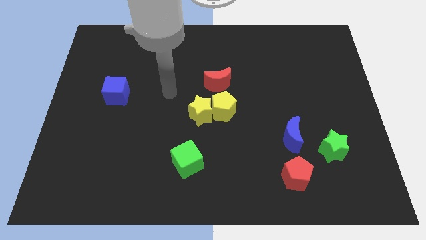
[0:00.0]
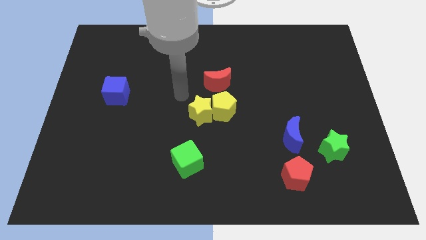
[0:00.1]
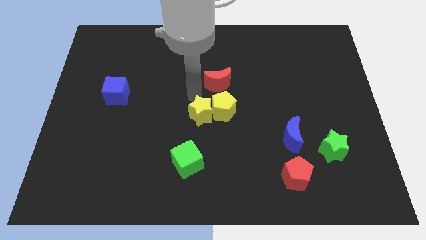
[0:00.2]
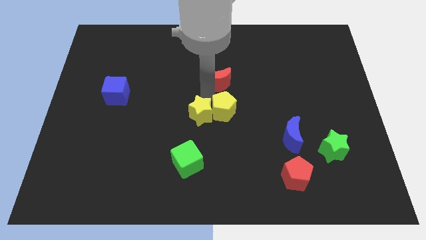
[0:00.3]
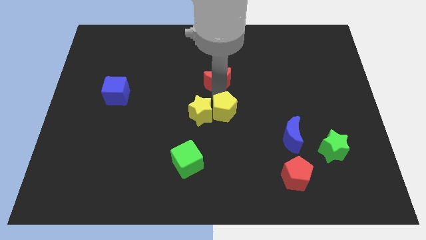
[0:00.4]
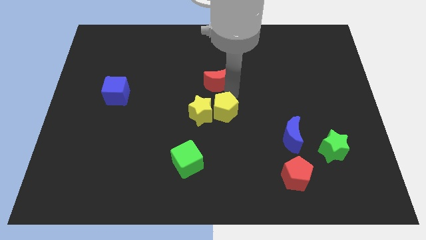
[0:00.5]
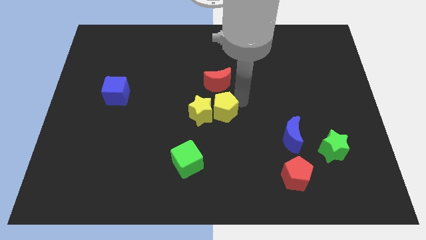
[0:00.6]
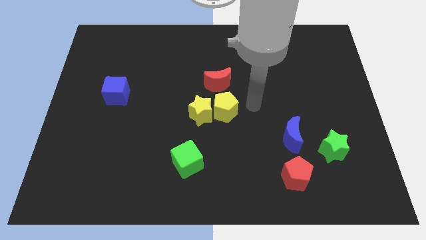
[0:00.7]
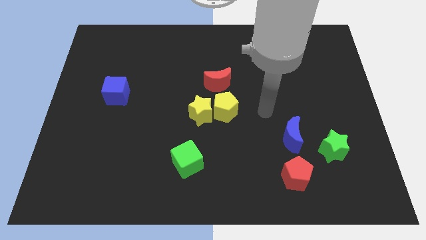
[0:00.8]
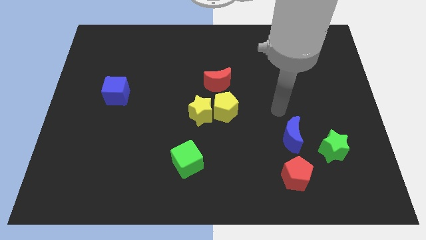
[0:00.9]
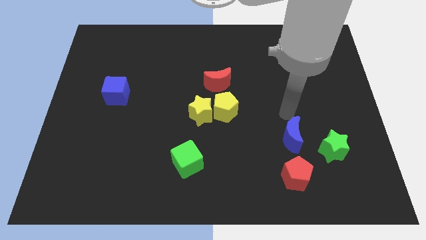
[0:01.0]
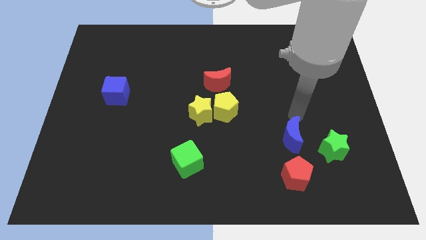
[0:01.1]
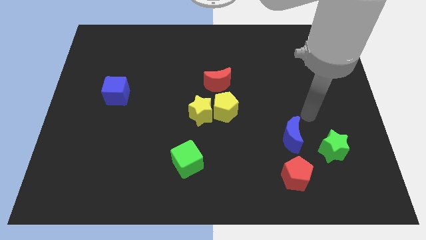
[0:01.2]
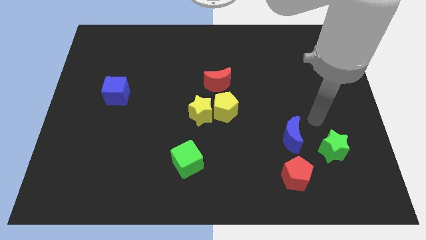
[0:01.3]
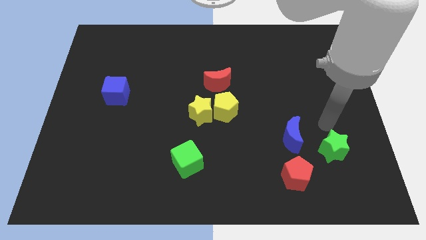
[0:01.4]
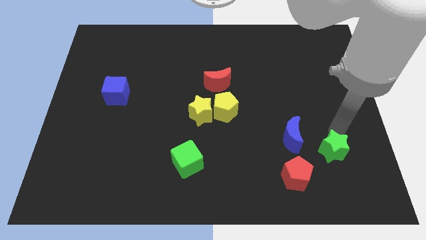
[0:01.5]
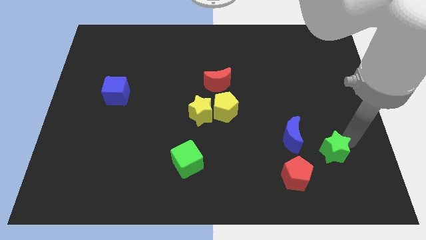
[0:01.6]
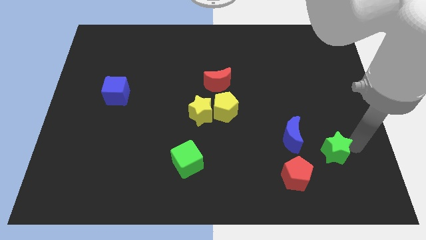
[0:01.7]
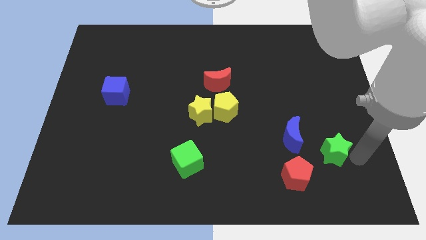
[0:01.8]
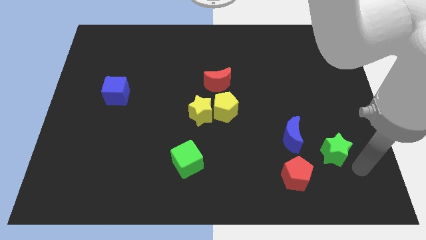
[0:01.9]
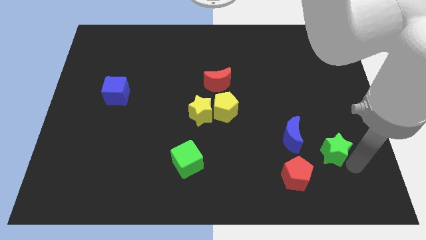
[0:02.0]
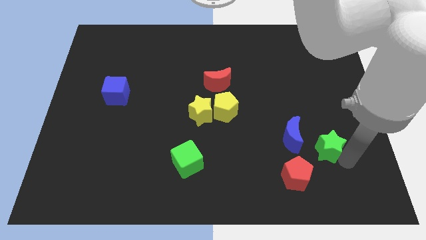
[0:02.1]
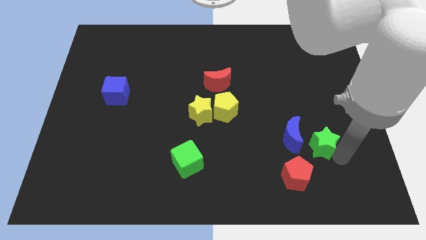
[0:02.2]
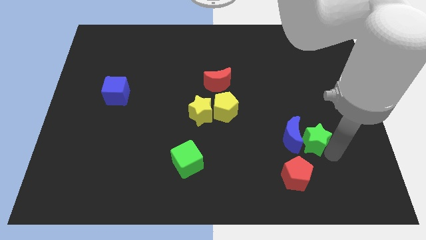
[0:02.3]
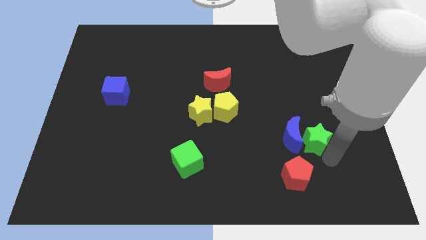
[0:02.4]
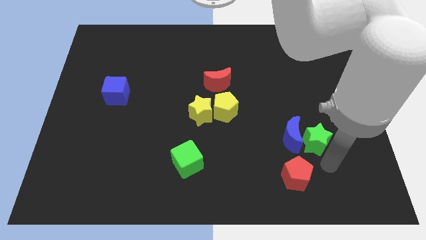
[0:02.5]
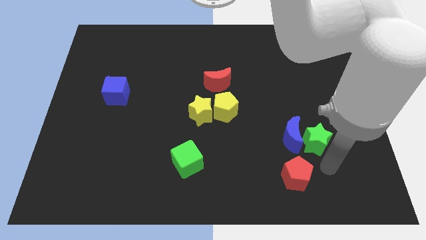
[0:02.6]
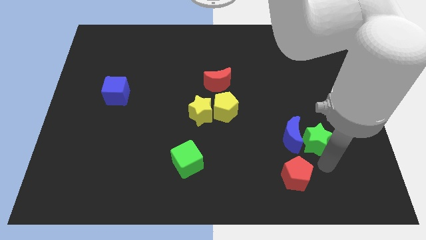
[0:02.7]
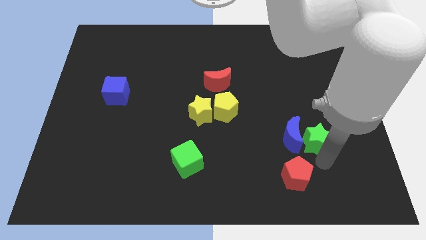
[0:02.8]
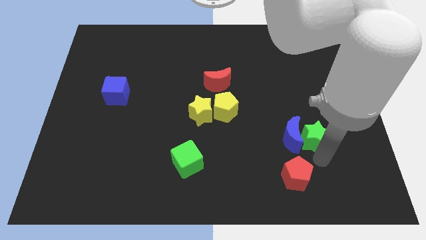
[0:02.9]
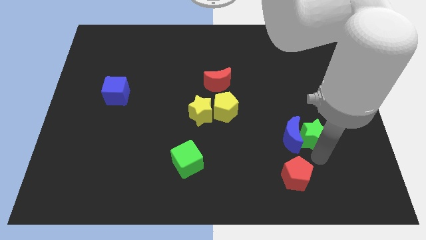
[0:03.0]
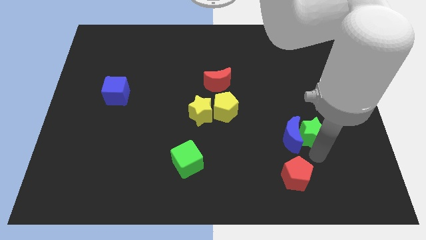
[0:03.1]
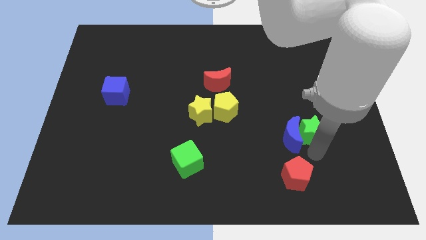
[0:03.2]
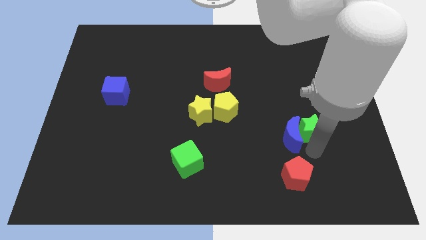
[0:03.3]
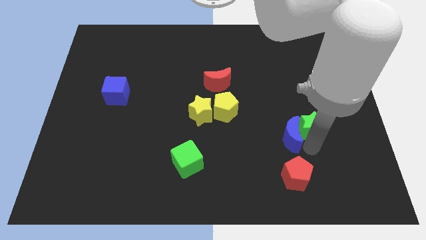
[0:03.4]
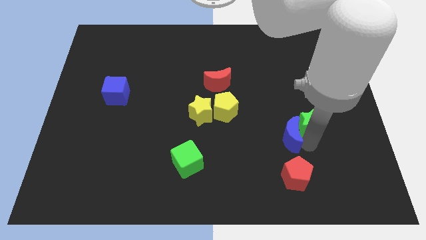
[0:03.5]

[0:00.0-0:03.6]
slightly slide the green star up and left diagonally

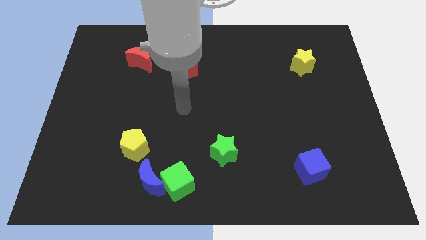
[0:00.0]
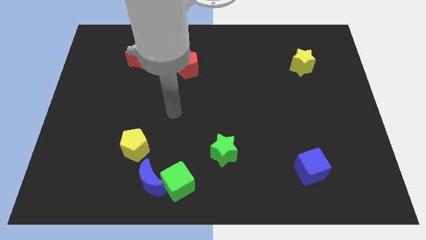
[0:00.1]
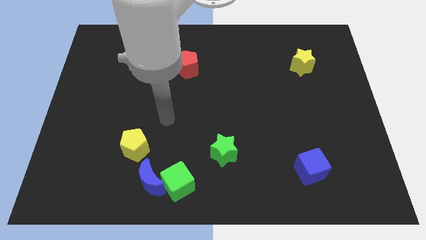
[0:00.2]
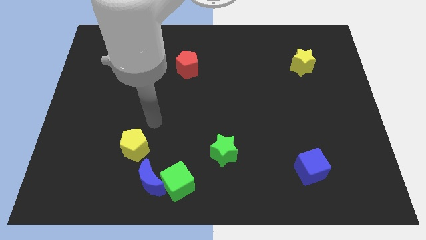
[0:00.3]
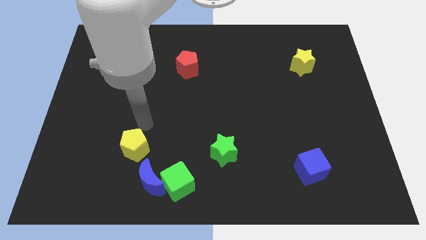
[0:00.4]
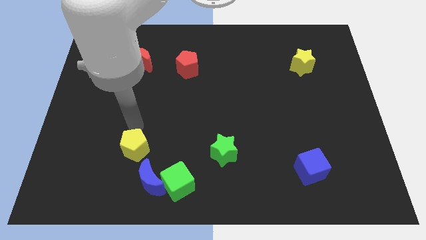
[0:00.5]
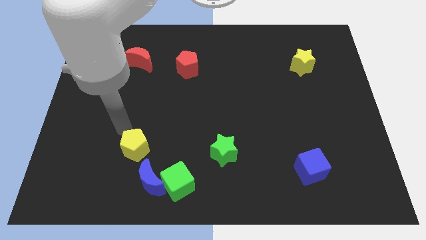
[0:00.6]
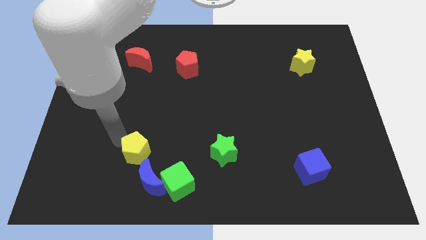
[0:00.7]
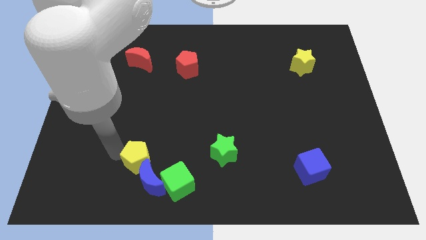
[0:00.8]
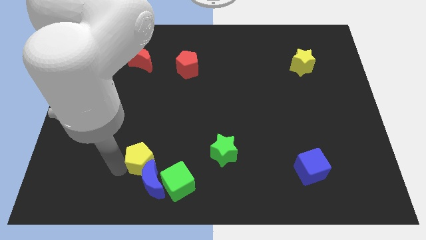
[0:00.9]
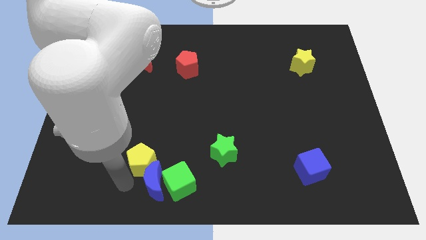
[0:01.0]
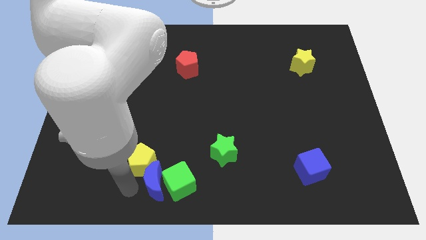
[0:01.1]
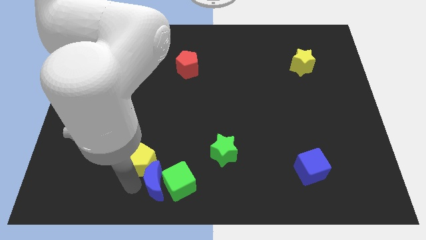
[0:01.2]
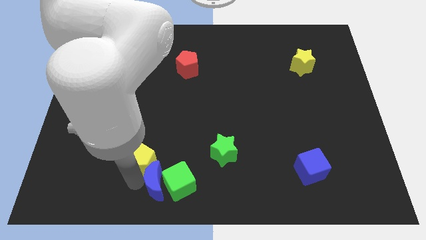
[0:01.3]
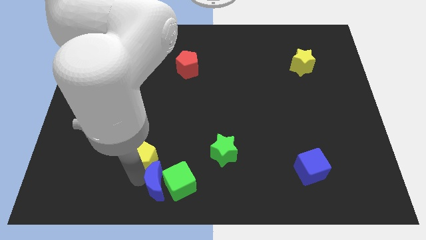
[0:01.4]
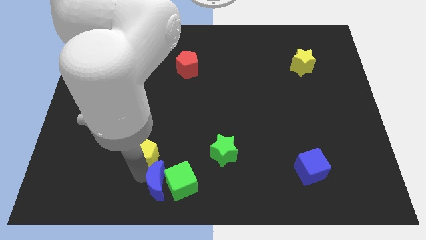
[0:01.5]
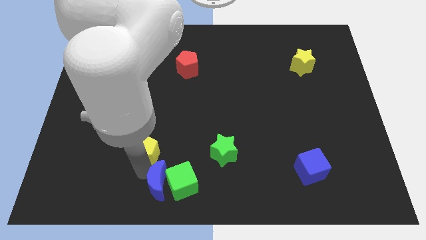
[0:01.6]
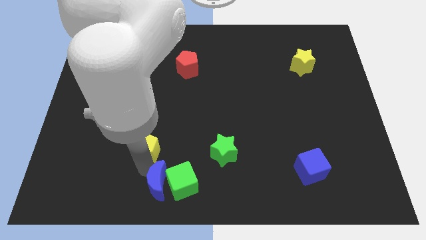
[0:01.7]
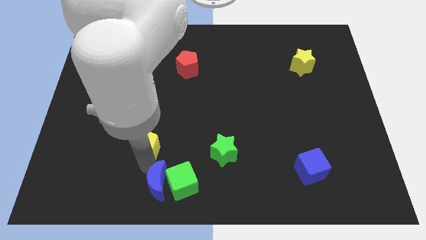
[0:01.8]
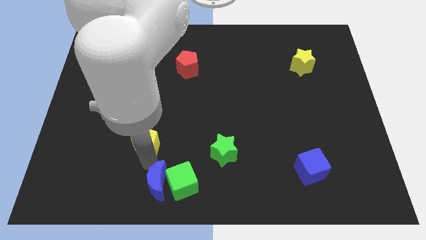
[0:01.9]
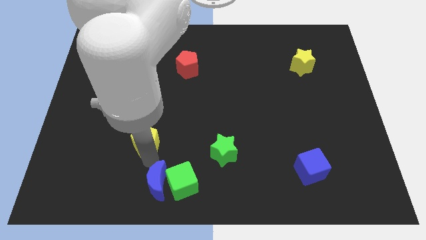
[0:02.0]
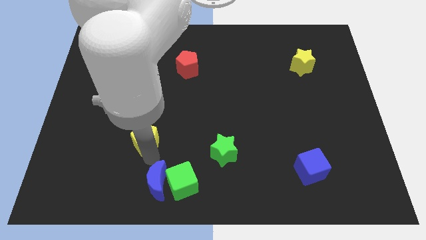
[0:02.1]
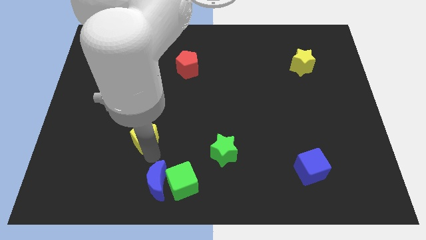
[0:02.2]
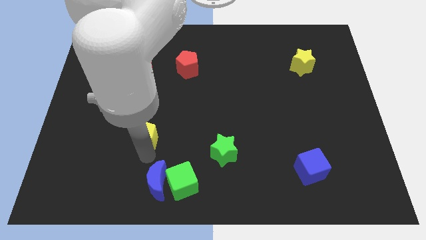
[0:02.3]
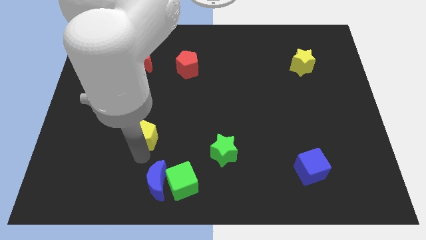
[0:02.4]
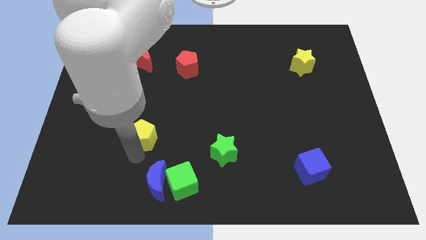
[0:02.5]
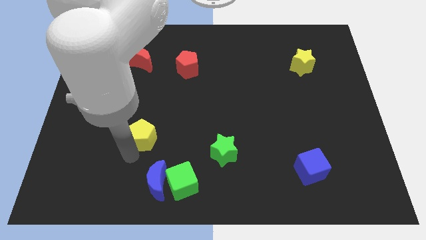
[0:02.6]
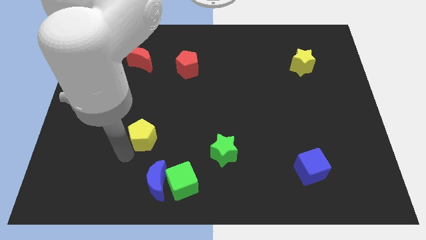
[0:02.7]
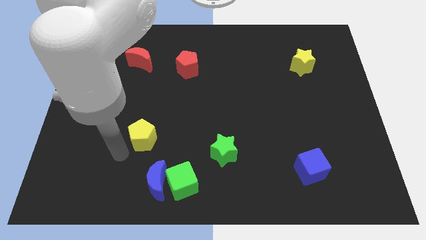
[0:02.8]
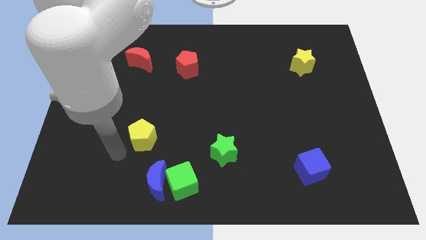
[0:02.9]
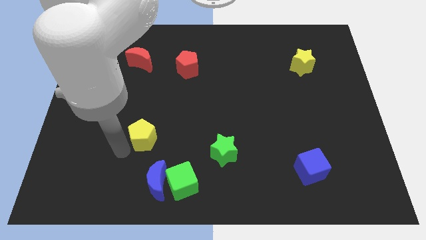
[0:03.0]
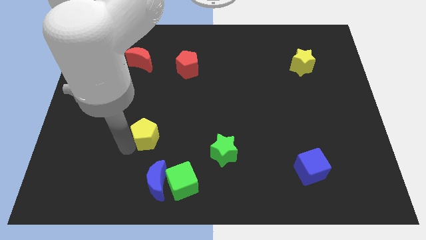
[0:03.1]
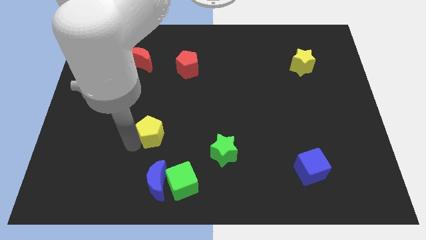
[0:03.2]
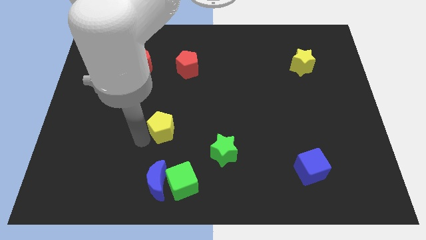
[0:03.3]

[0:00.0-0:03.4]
slightly slide the yellow pentagon upwards and right

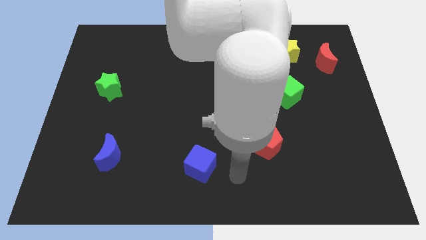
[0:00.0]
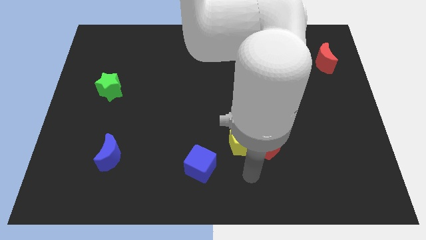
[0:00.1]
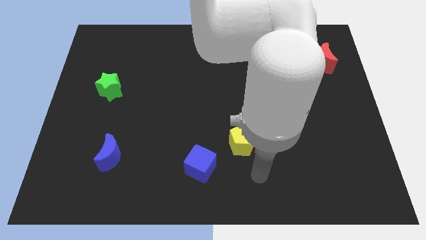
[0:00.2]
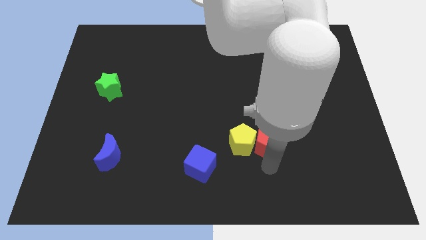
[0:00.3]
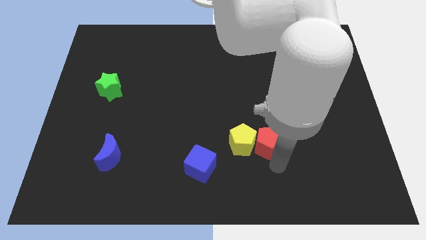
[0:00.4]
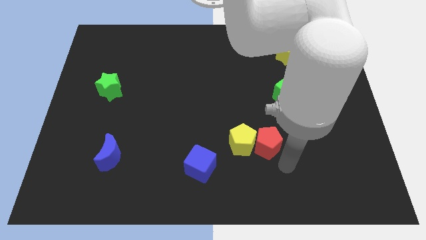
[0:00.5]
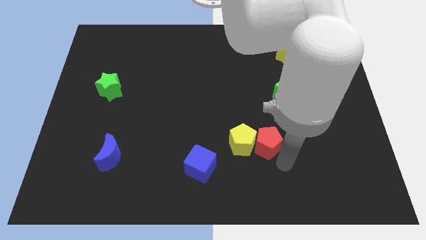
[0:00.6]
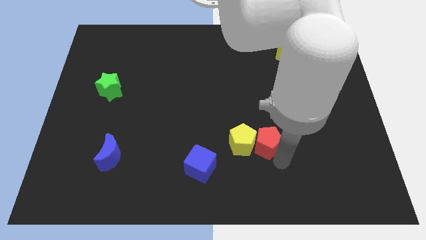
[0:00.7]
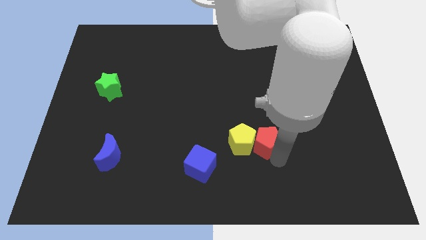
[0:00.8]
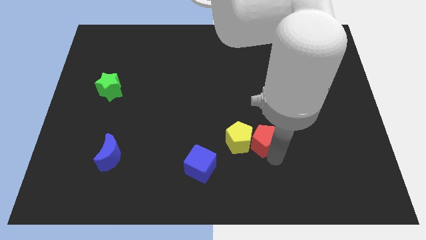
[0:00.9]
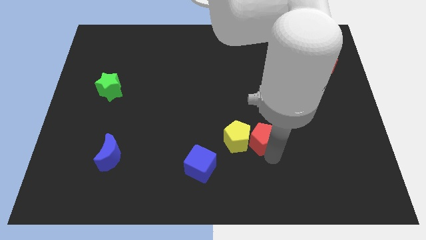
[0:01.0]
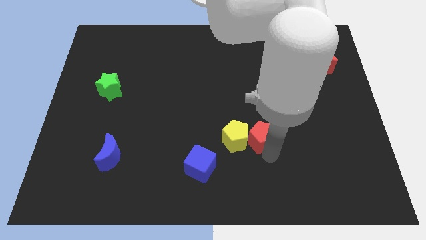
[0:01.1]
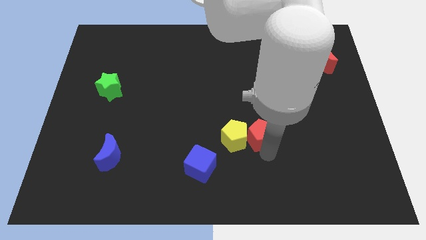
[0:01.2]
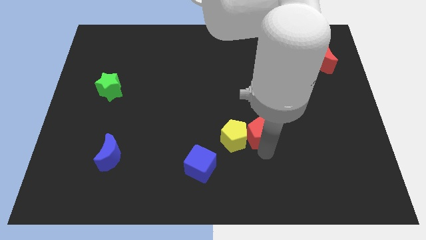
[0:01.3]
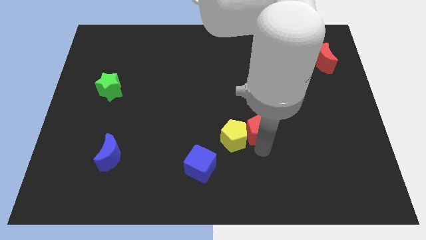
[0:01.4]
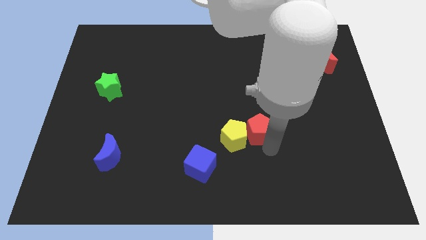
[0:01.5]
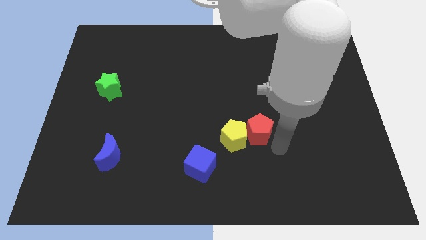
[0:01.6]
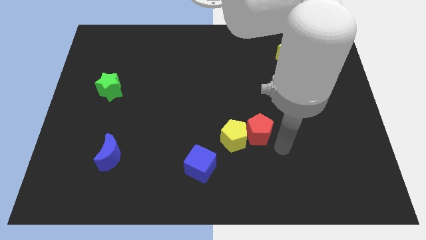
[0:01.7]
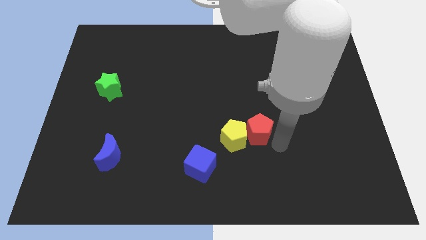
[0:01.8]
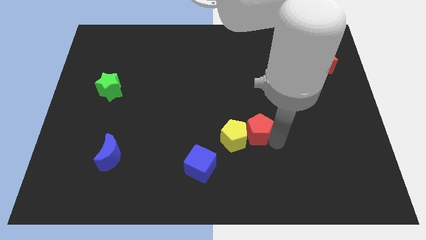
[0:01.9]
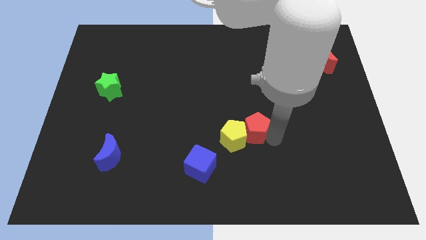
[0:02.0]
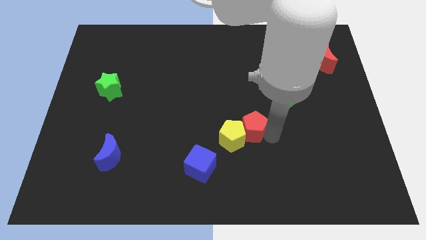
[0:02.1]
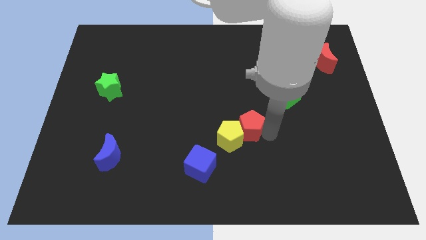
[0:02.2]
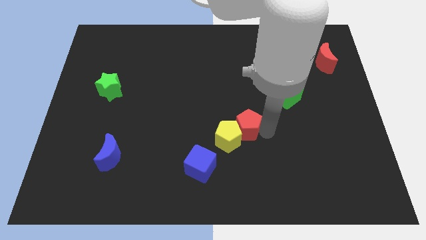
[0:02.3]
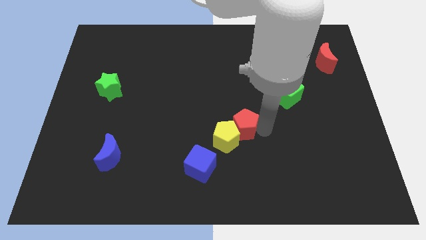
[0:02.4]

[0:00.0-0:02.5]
push the red pentagon up and then to the left a bit
